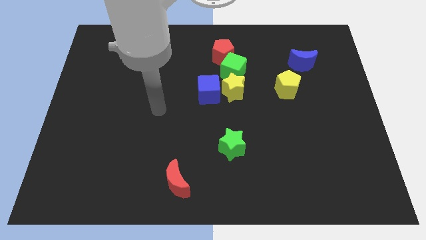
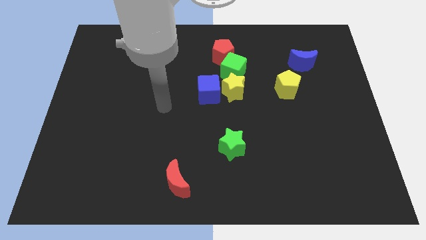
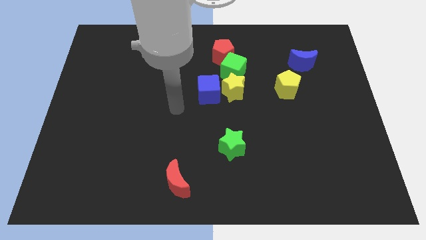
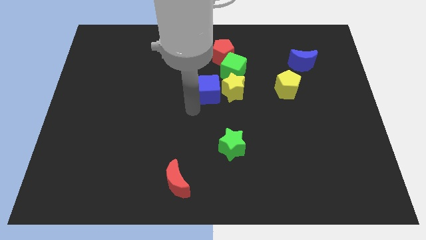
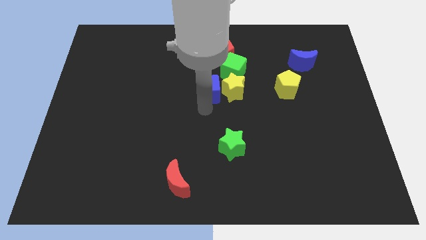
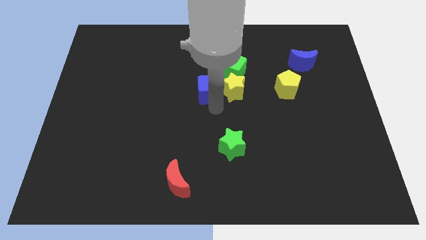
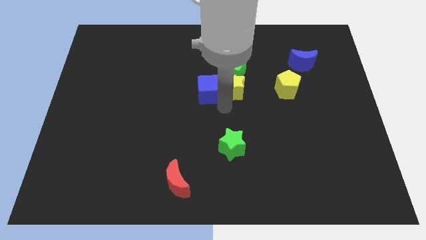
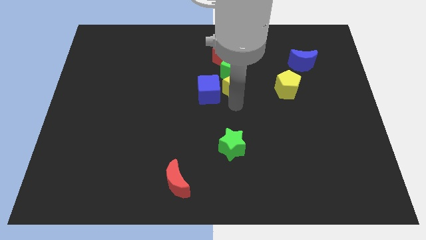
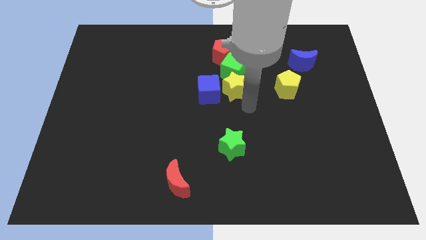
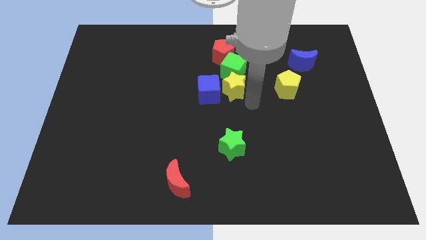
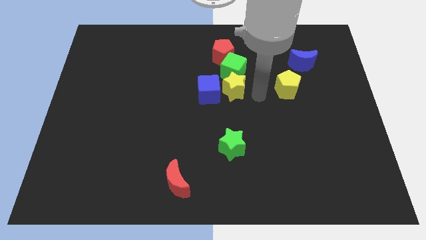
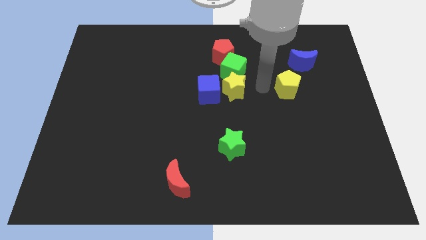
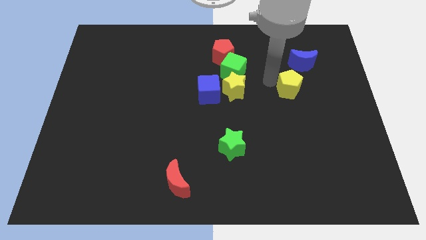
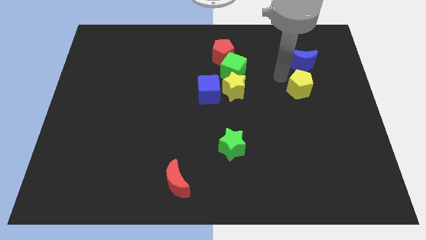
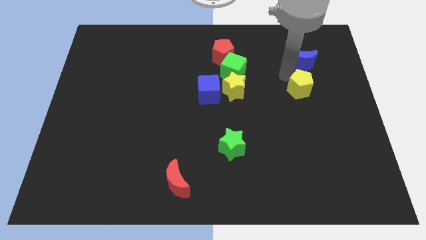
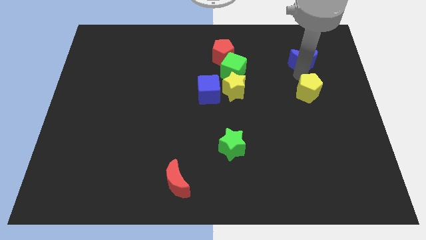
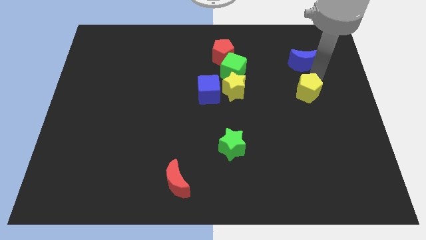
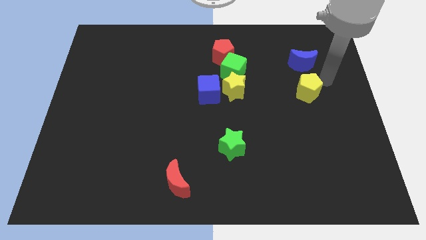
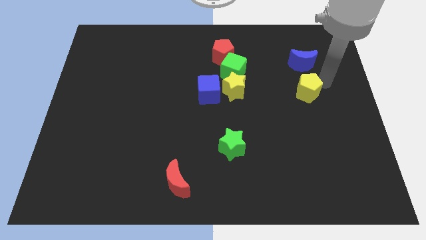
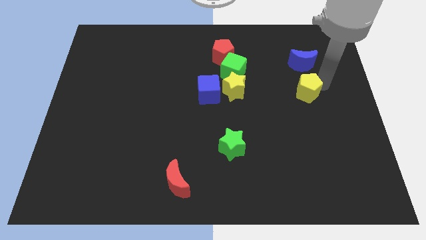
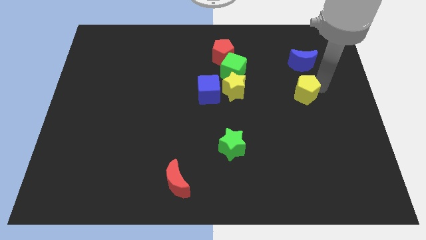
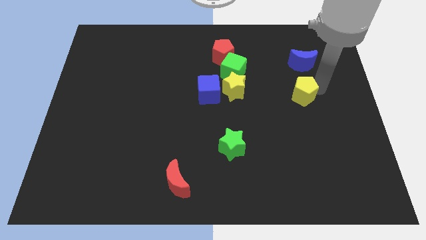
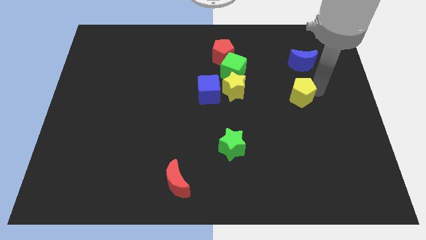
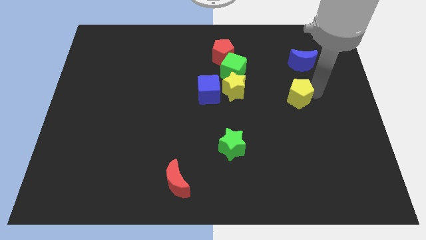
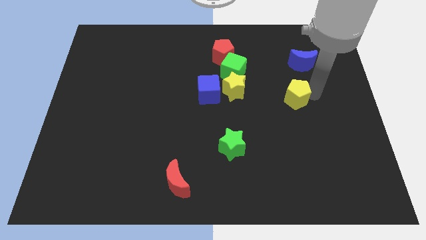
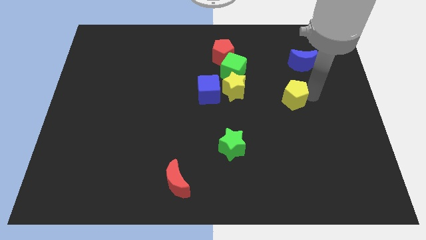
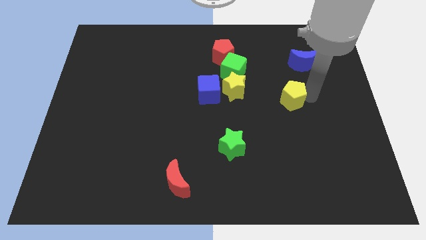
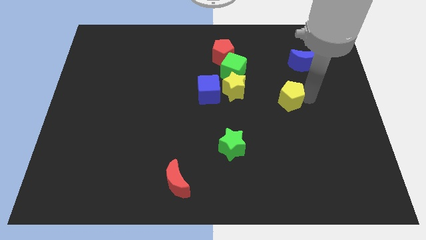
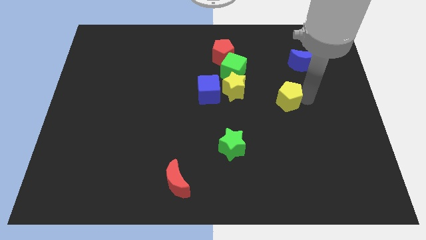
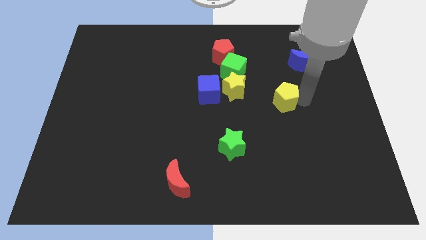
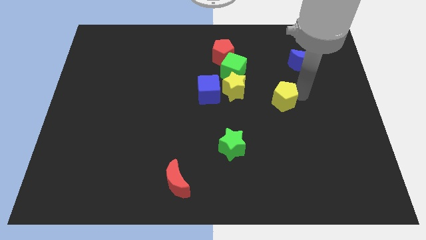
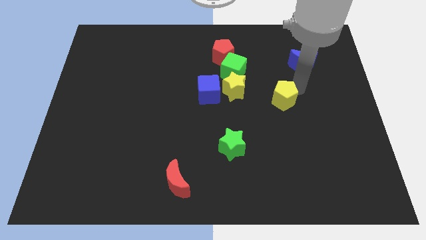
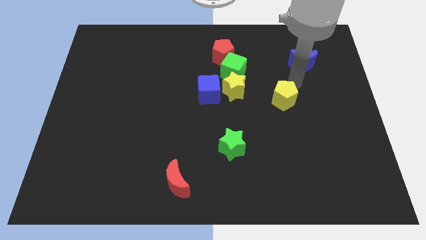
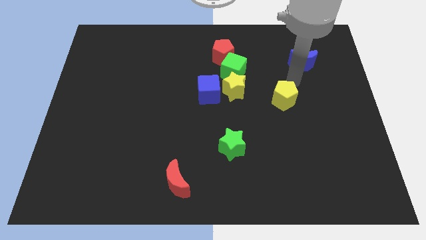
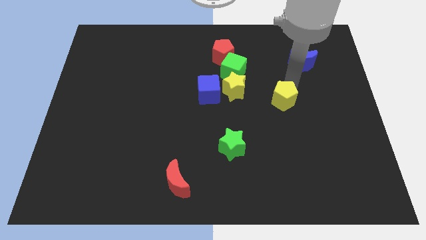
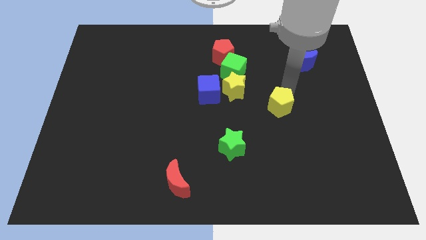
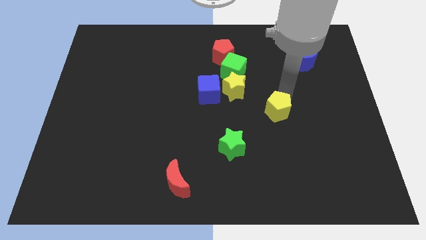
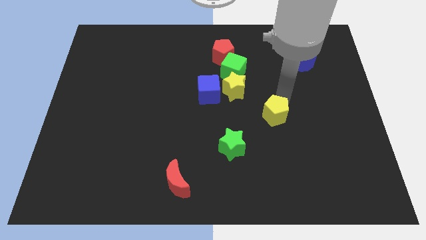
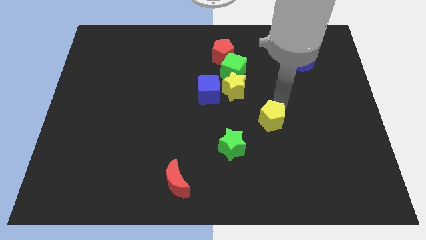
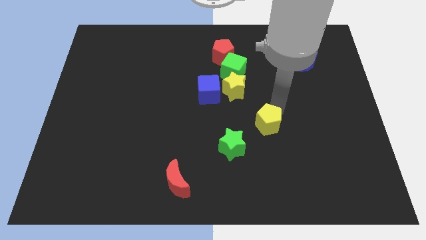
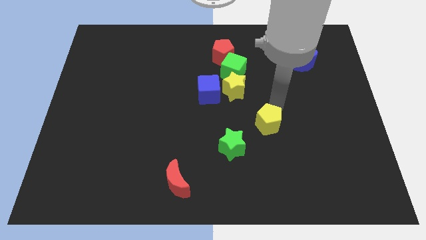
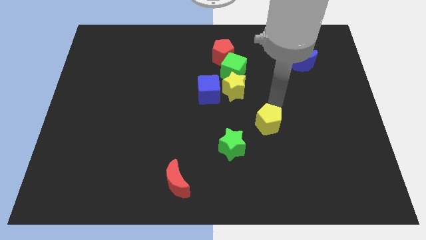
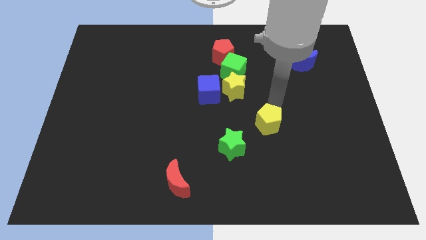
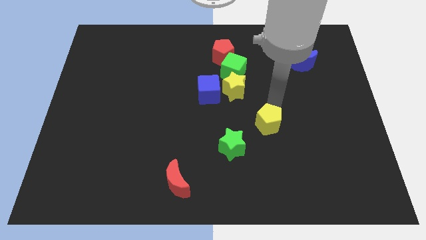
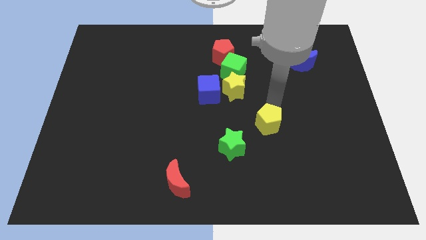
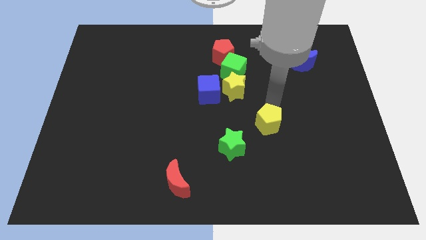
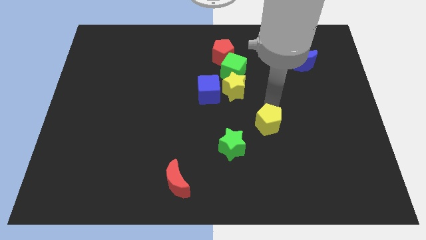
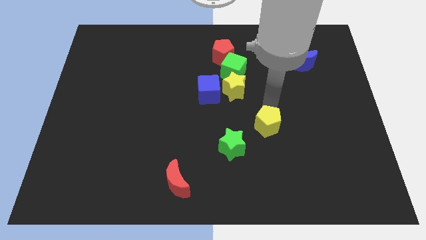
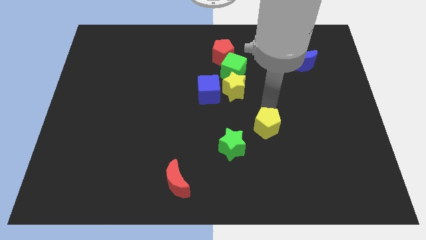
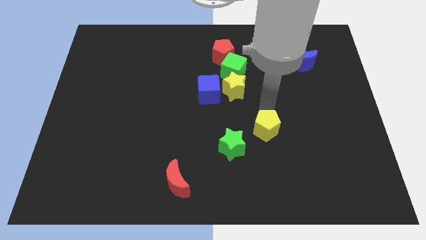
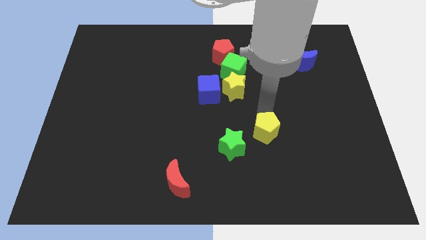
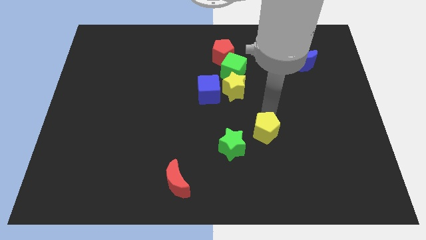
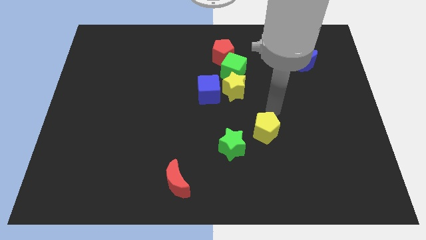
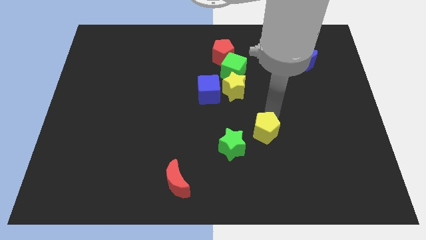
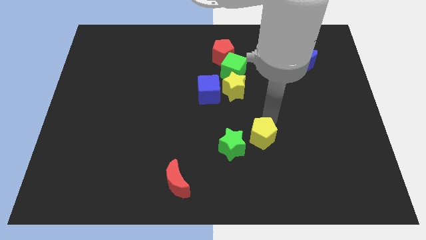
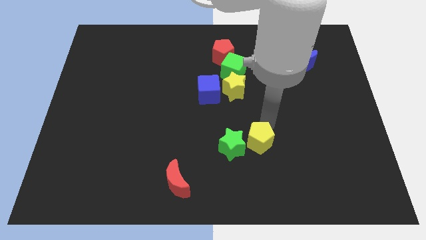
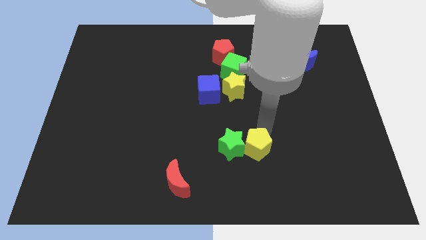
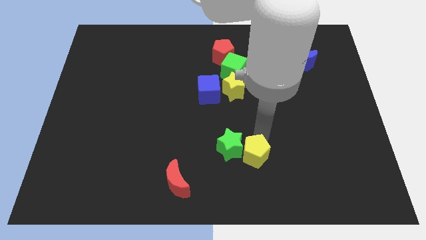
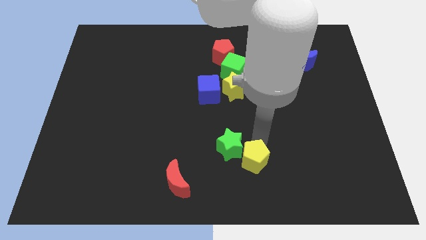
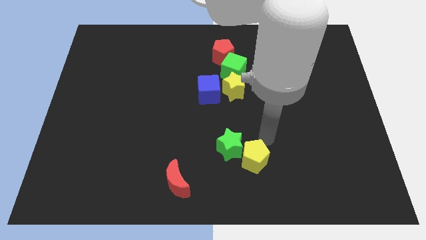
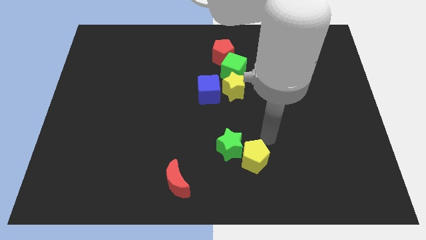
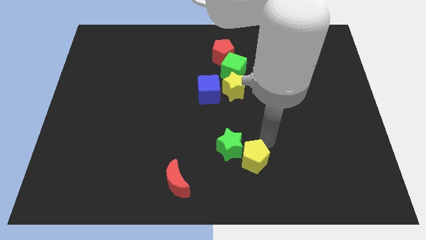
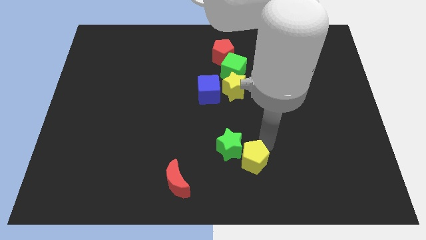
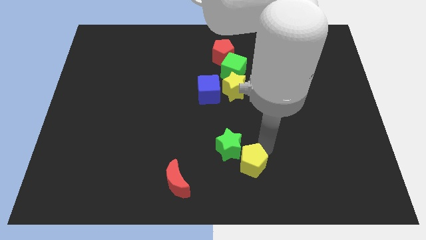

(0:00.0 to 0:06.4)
slide the yellow pentagon to the bottom side

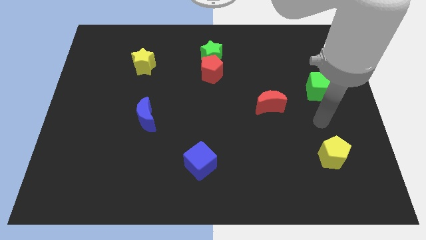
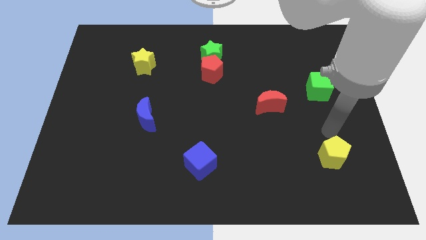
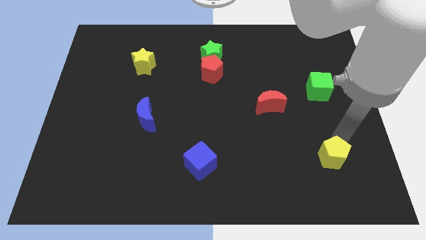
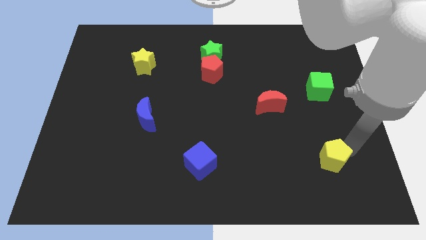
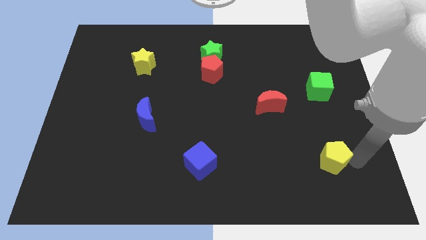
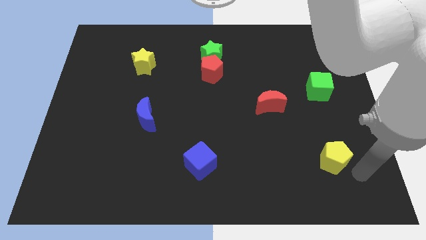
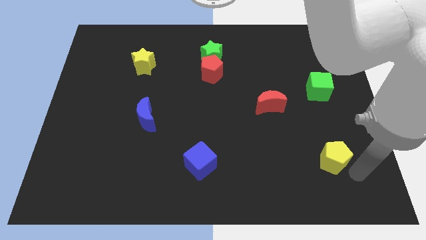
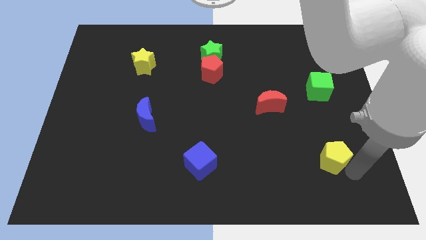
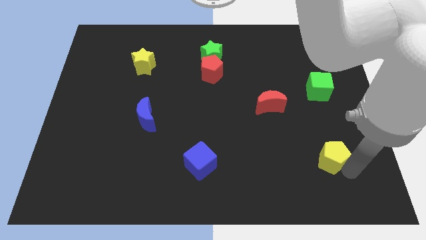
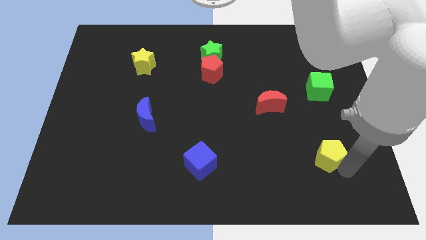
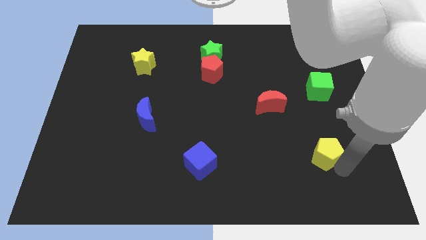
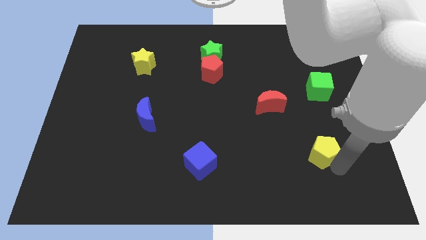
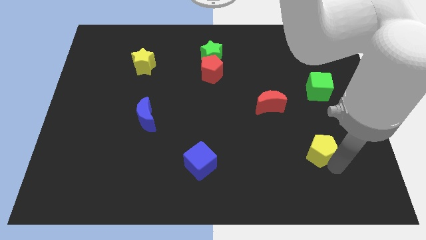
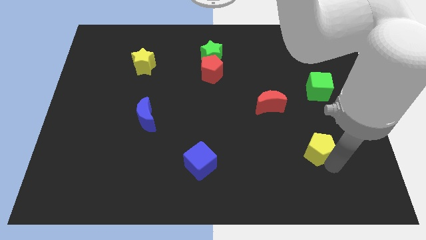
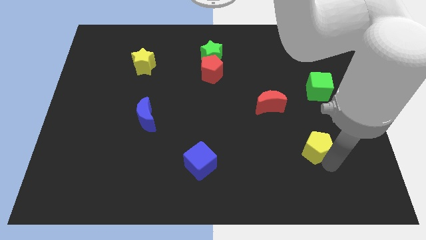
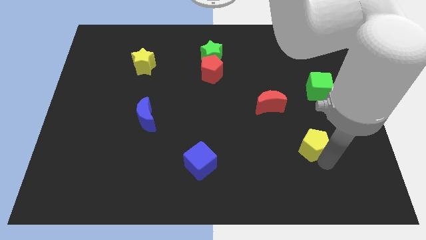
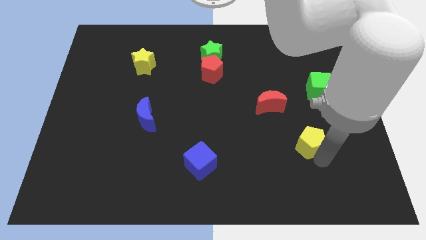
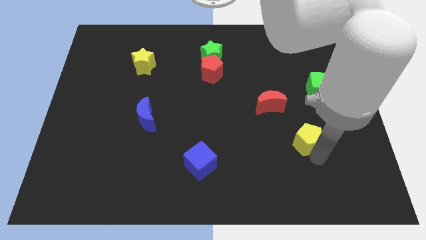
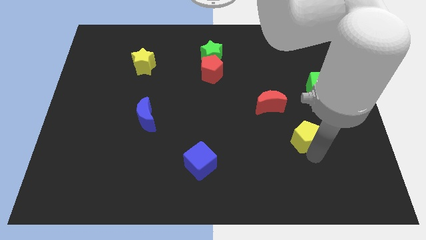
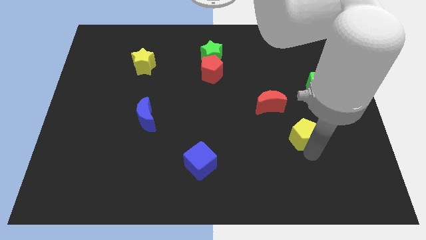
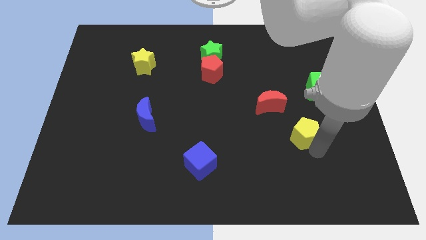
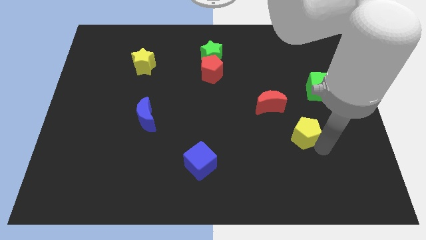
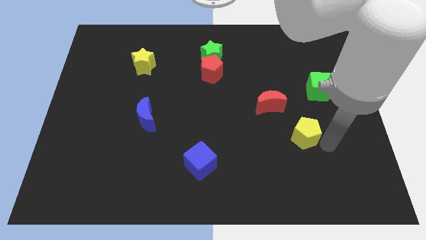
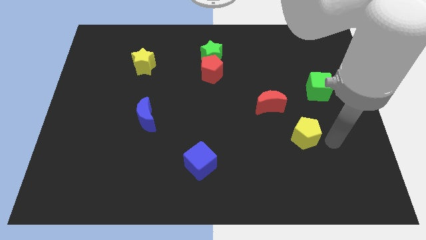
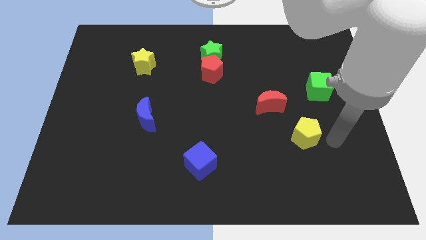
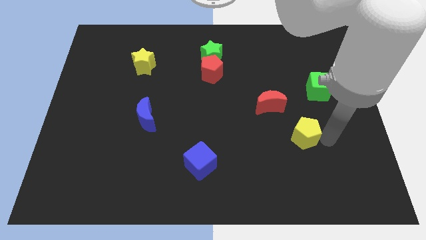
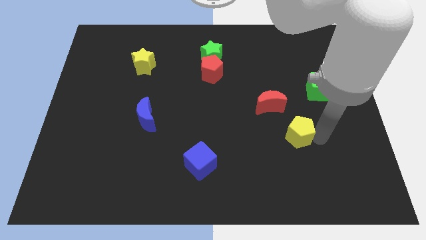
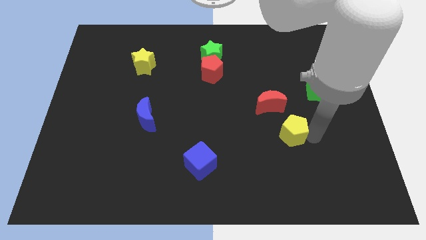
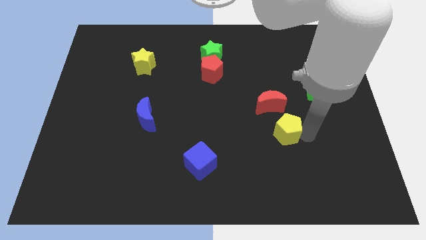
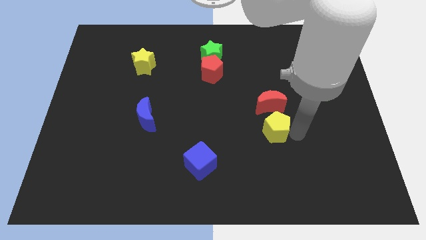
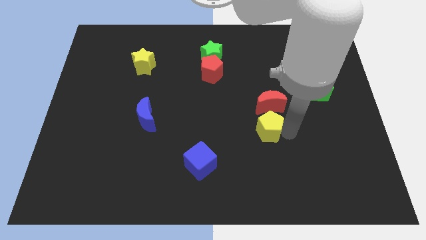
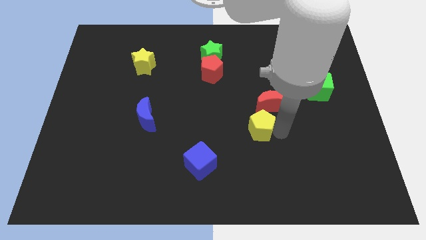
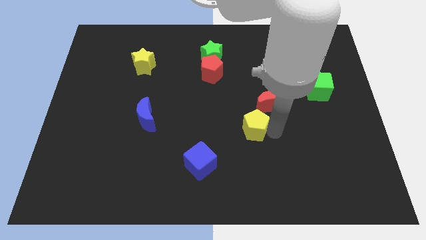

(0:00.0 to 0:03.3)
slide the yellow pentagon to the center
